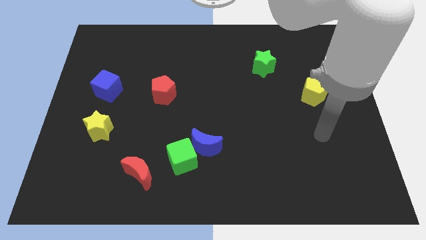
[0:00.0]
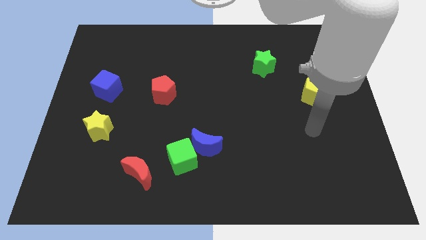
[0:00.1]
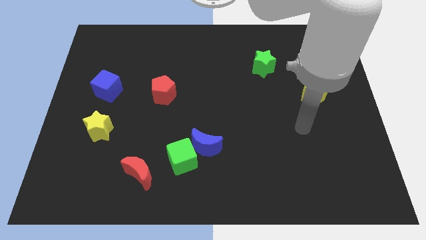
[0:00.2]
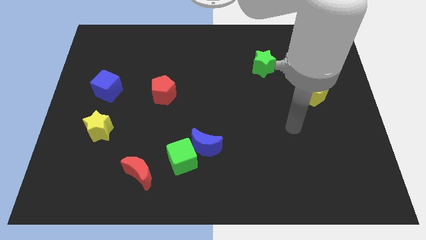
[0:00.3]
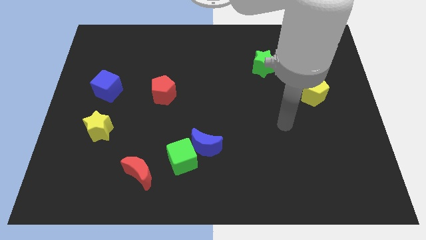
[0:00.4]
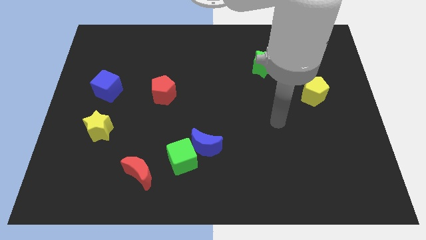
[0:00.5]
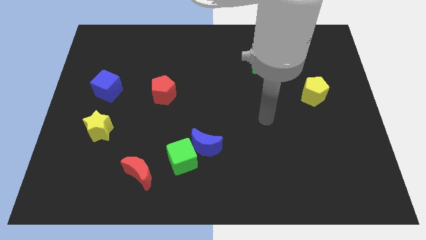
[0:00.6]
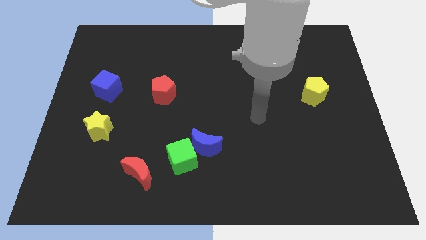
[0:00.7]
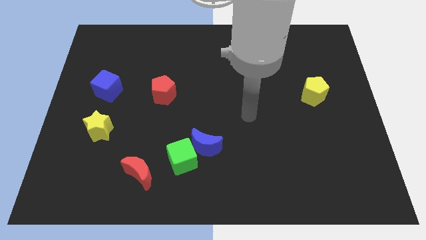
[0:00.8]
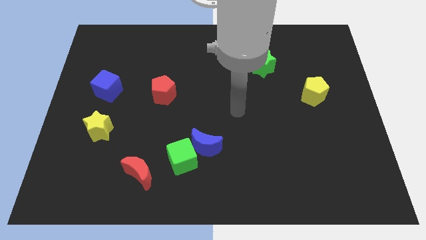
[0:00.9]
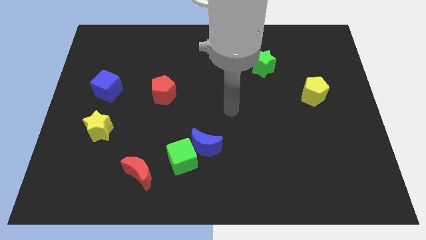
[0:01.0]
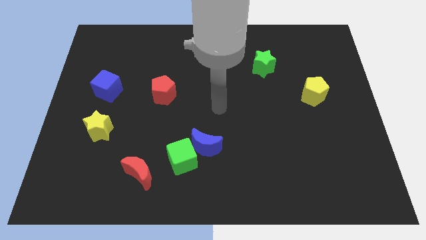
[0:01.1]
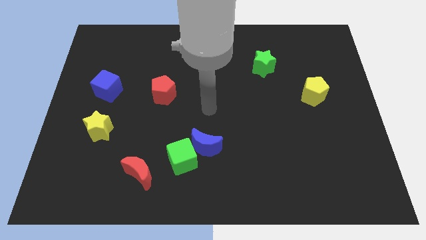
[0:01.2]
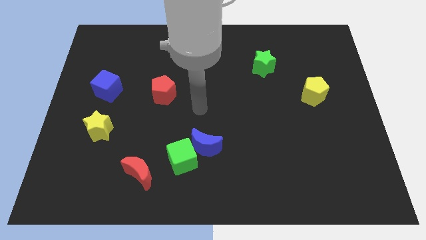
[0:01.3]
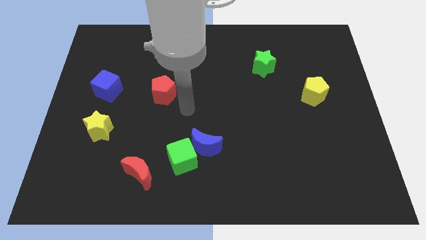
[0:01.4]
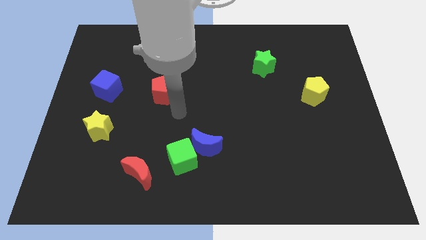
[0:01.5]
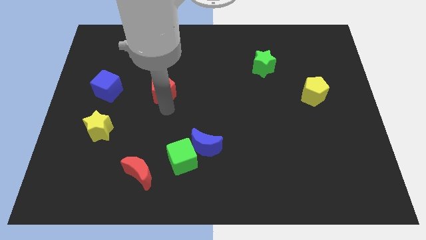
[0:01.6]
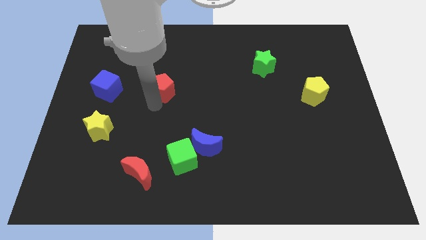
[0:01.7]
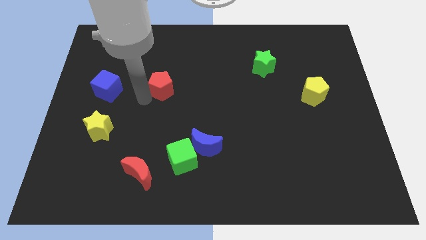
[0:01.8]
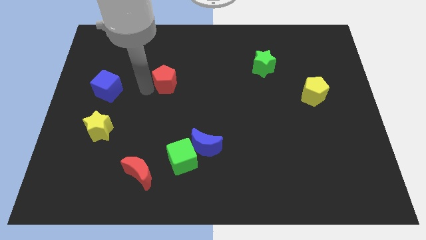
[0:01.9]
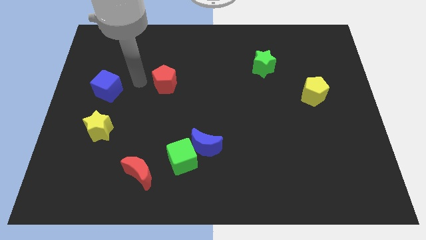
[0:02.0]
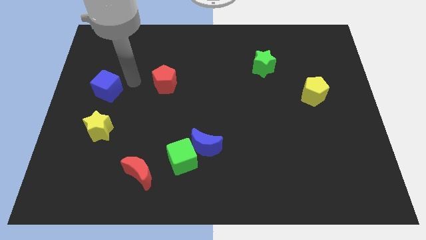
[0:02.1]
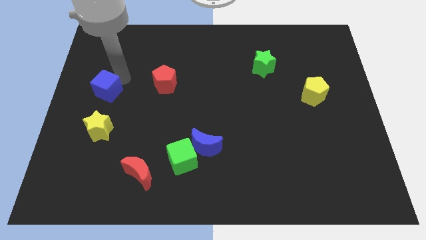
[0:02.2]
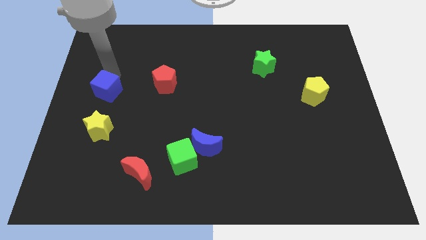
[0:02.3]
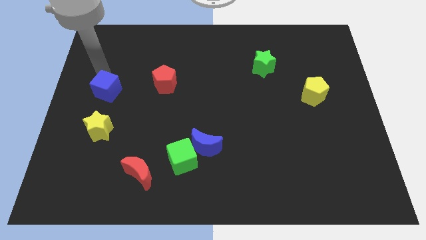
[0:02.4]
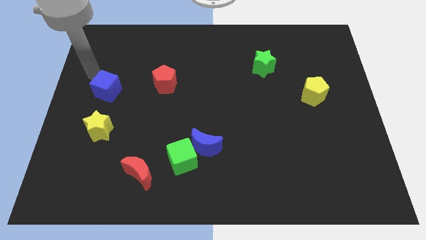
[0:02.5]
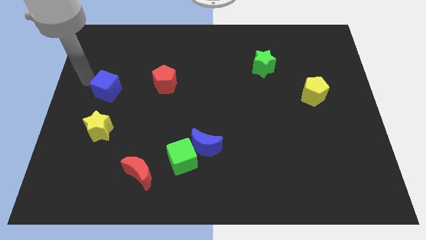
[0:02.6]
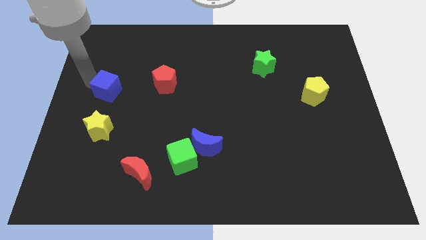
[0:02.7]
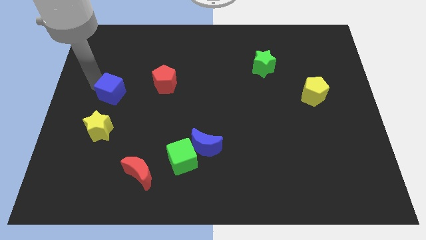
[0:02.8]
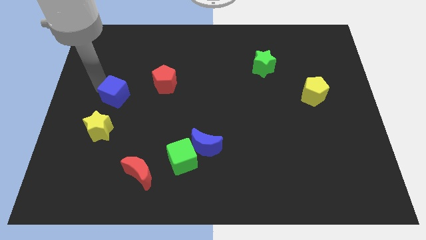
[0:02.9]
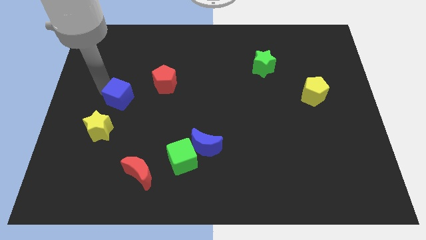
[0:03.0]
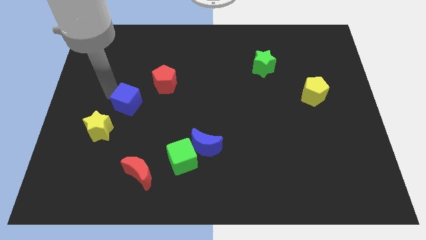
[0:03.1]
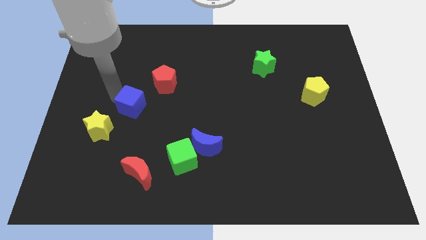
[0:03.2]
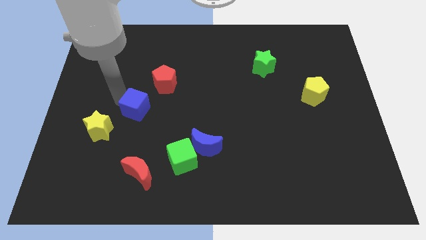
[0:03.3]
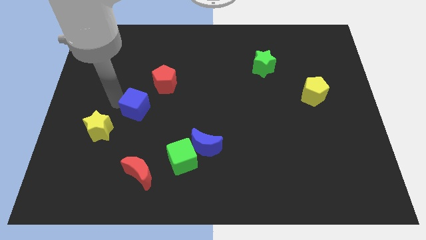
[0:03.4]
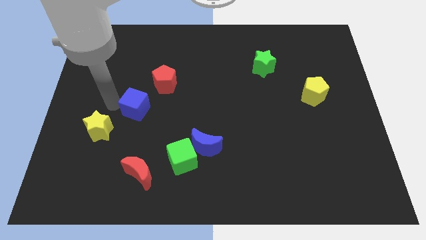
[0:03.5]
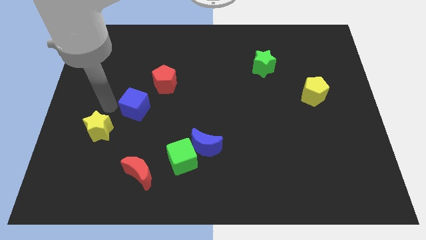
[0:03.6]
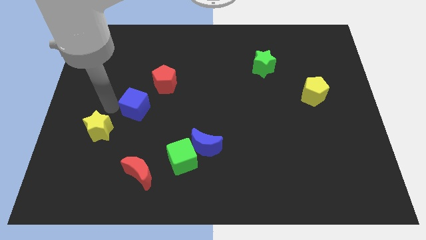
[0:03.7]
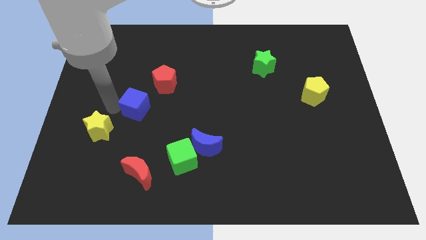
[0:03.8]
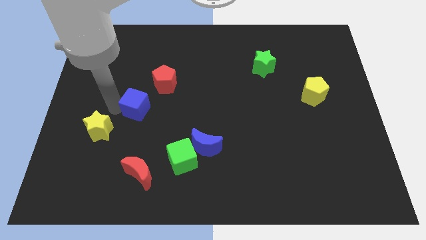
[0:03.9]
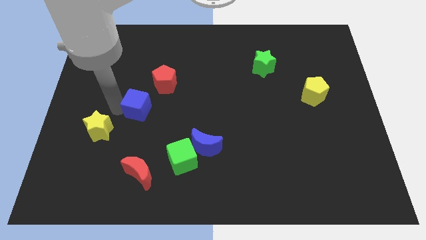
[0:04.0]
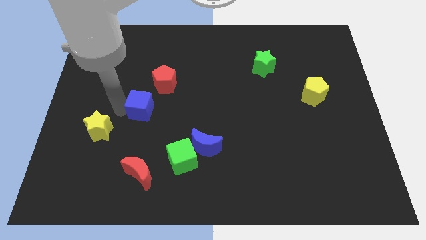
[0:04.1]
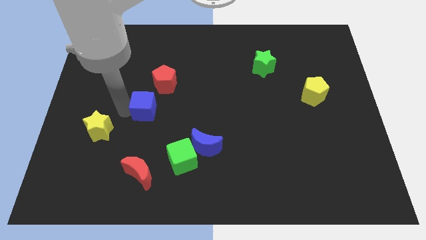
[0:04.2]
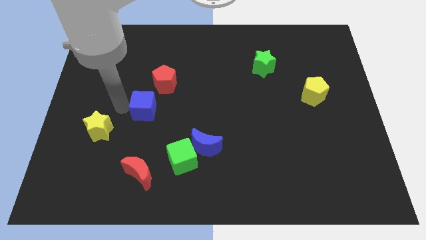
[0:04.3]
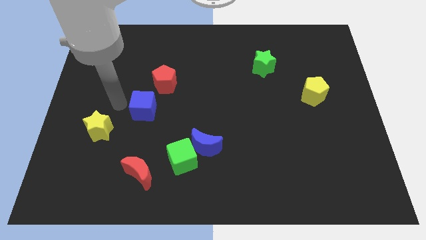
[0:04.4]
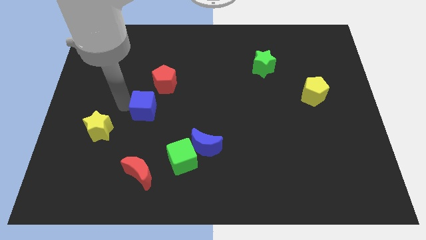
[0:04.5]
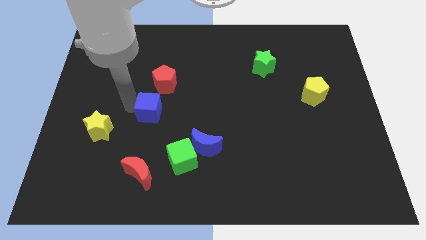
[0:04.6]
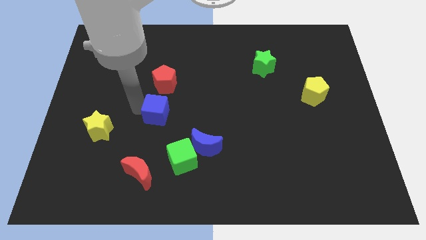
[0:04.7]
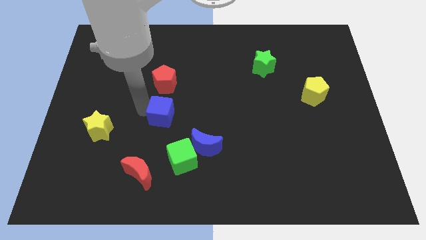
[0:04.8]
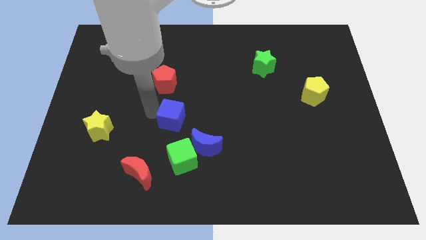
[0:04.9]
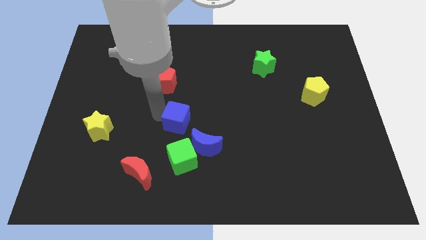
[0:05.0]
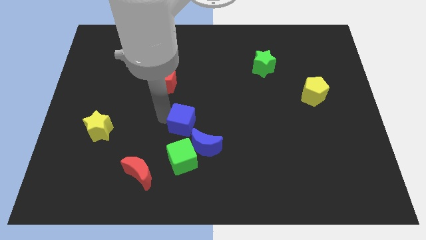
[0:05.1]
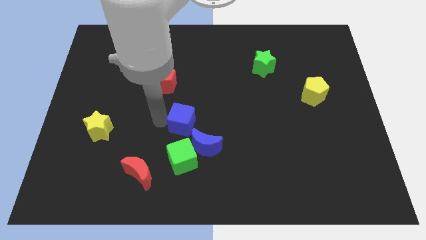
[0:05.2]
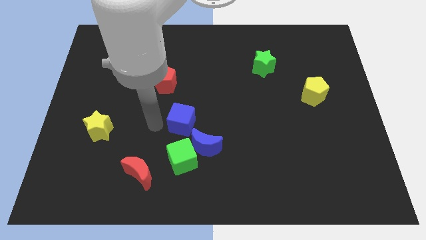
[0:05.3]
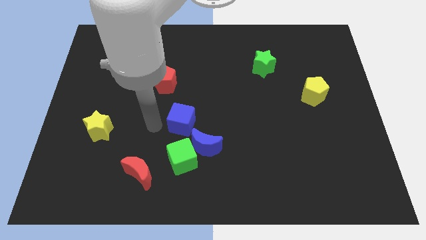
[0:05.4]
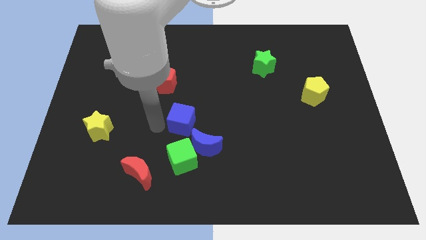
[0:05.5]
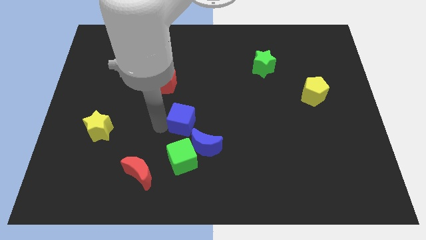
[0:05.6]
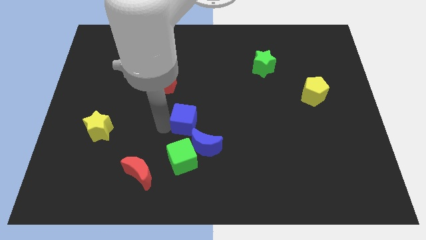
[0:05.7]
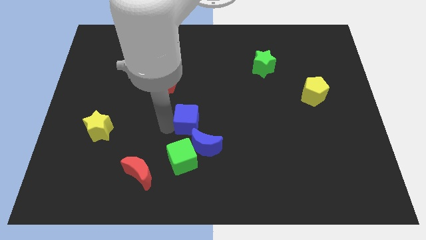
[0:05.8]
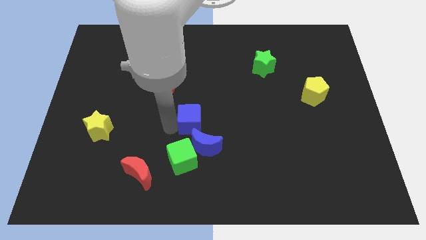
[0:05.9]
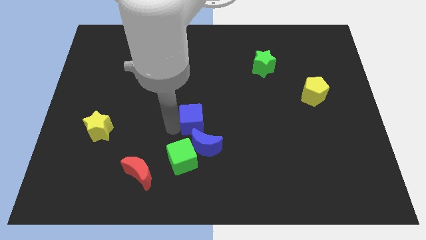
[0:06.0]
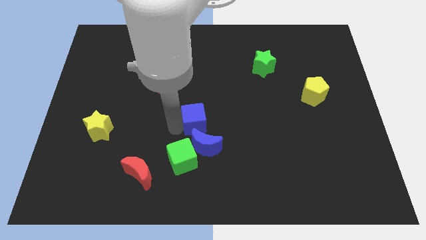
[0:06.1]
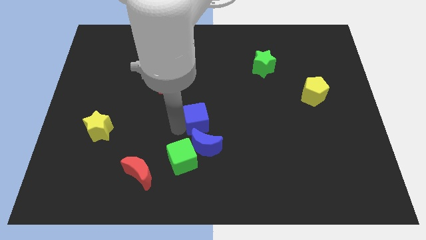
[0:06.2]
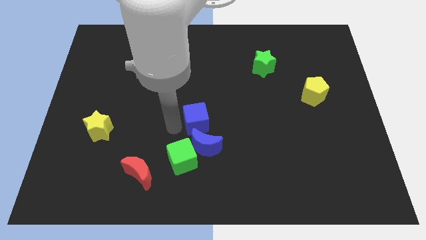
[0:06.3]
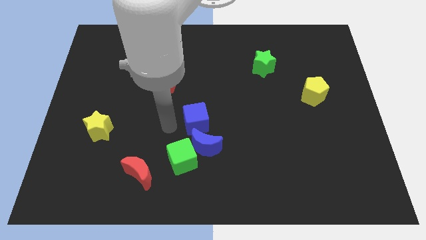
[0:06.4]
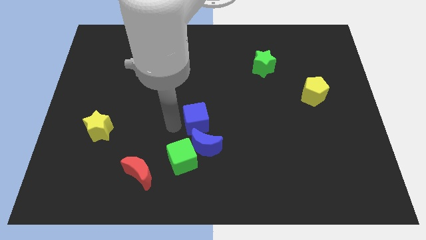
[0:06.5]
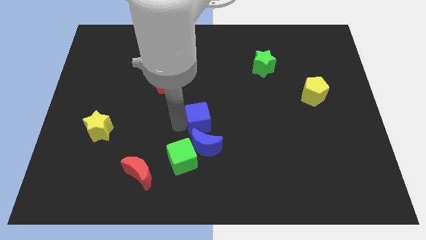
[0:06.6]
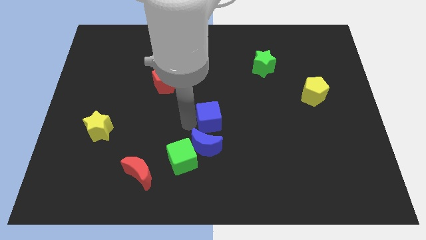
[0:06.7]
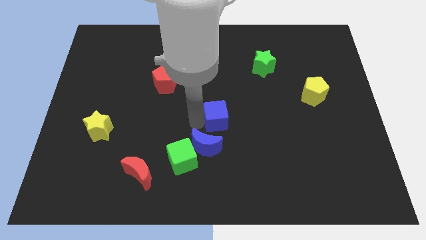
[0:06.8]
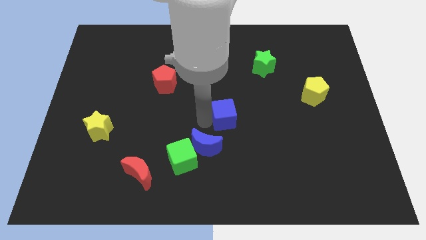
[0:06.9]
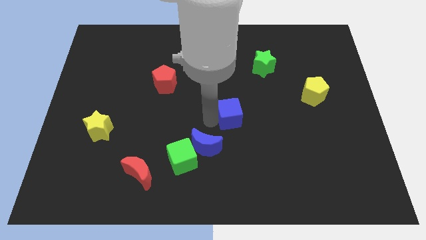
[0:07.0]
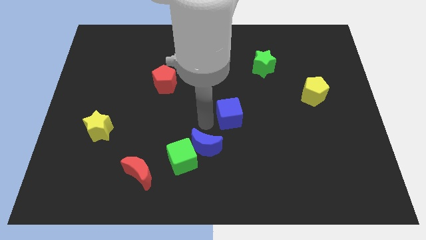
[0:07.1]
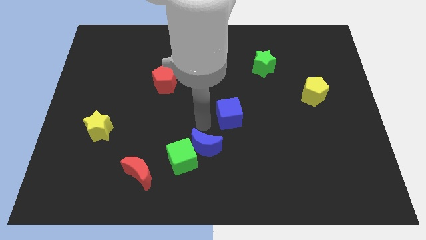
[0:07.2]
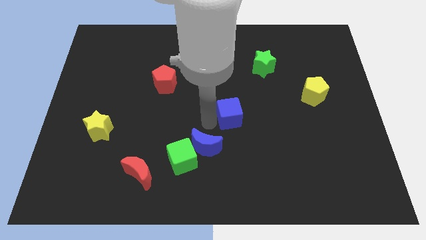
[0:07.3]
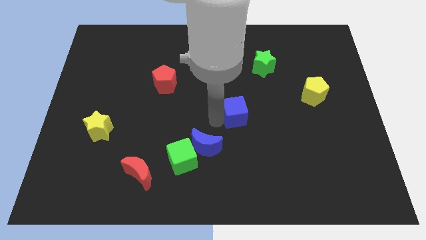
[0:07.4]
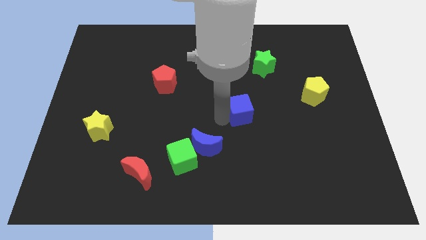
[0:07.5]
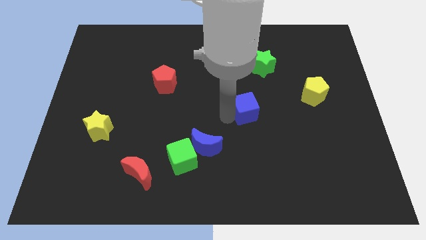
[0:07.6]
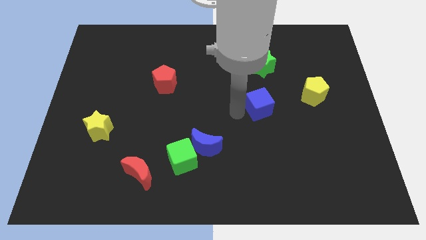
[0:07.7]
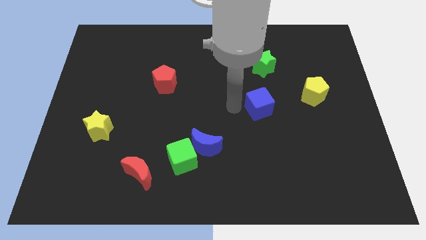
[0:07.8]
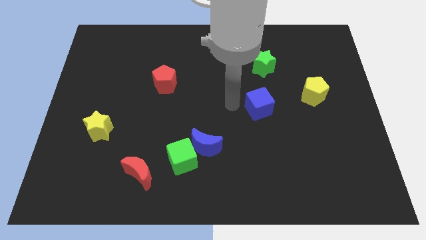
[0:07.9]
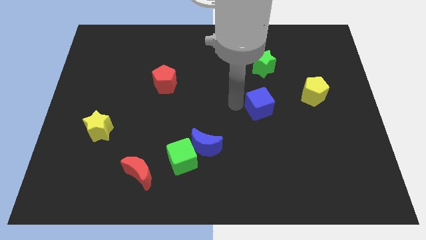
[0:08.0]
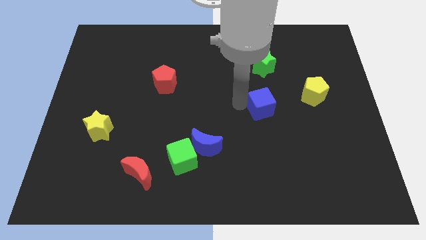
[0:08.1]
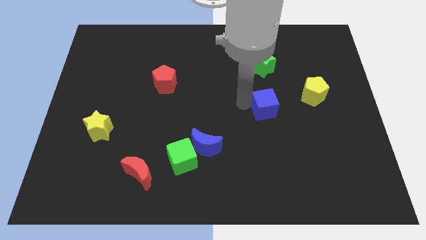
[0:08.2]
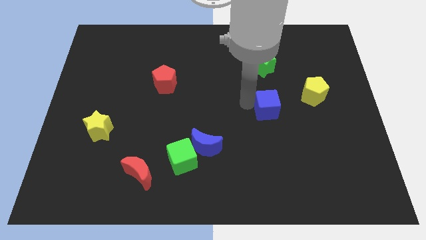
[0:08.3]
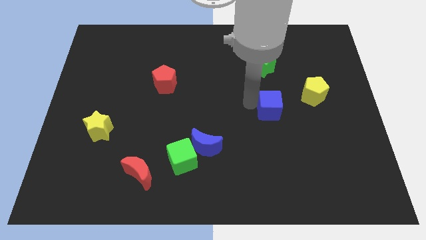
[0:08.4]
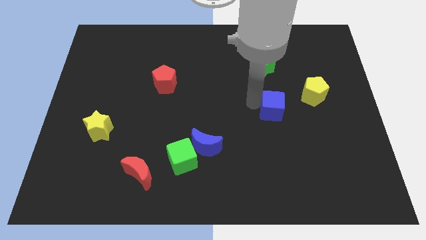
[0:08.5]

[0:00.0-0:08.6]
slide the blue cube to the bottom left side of the yellow pentagon
